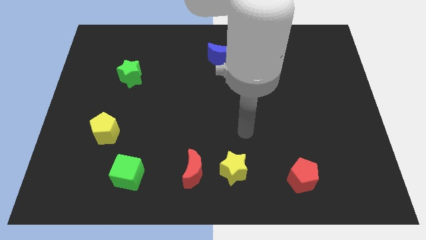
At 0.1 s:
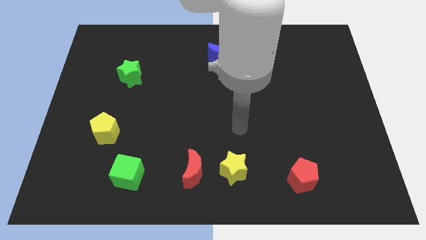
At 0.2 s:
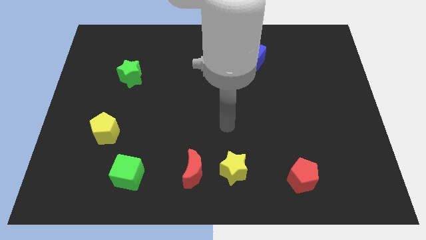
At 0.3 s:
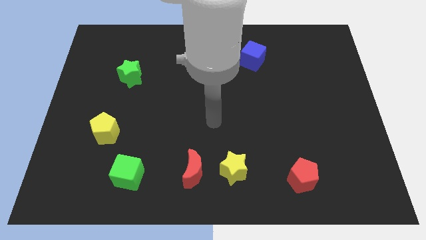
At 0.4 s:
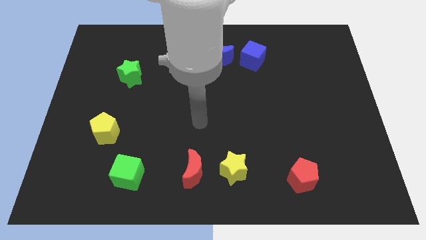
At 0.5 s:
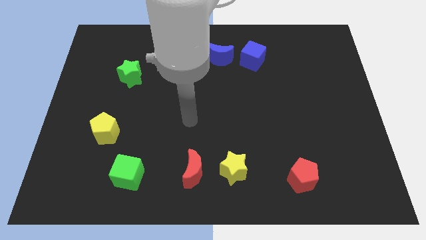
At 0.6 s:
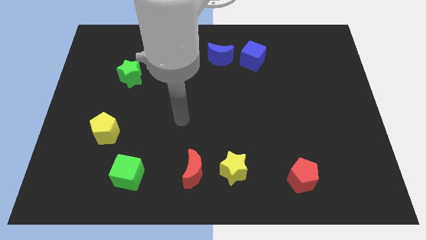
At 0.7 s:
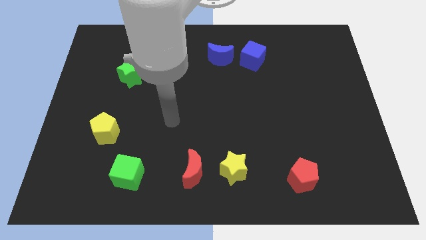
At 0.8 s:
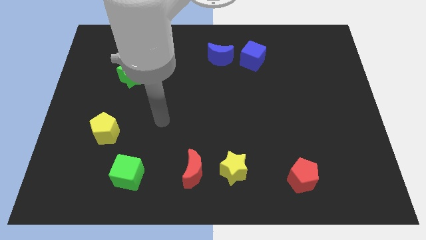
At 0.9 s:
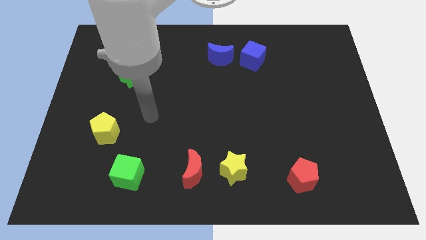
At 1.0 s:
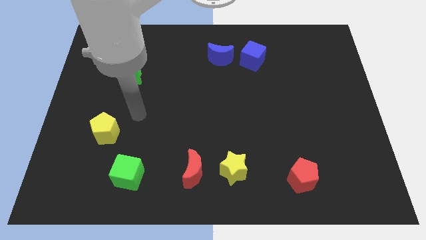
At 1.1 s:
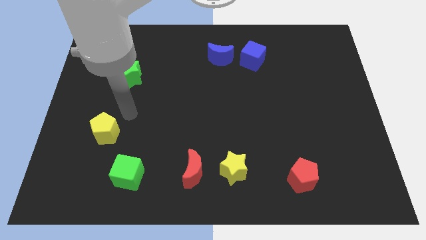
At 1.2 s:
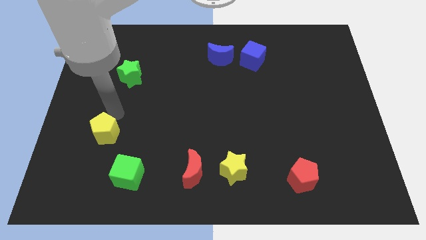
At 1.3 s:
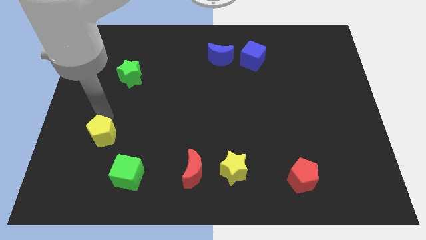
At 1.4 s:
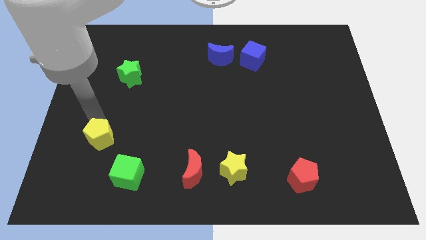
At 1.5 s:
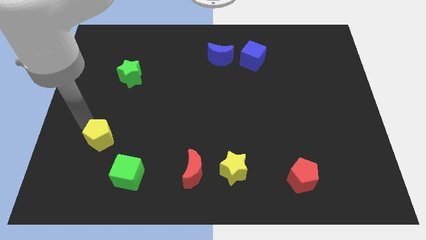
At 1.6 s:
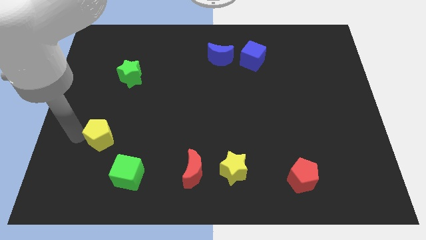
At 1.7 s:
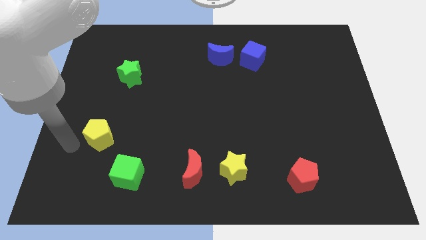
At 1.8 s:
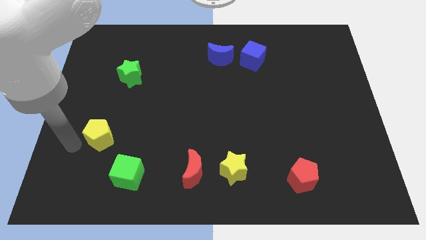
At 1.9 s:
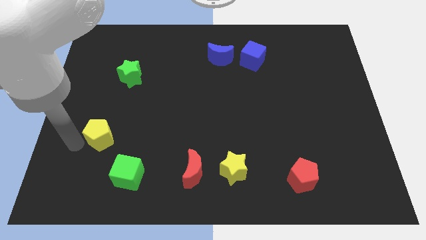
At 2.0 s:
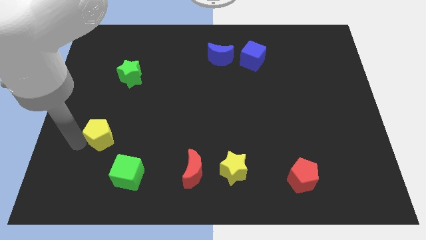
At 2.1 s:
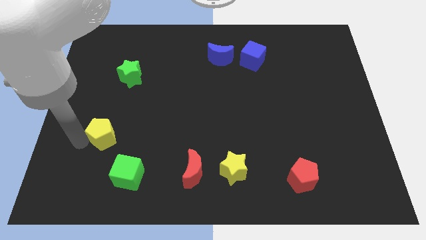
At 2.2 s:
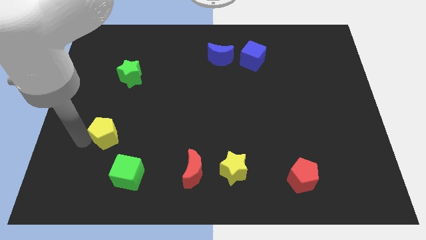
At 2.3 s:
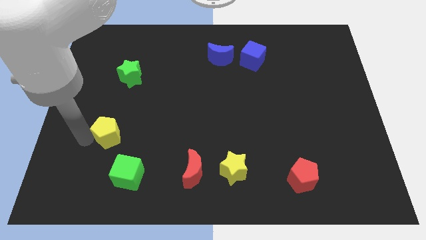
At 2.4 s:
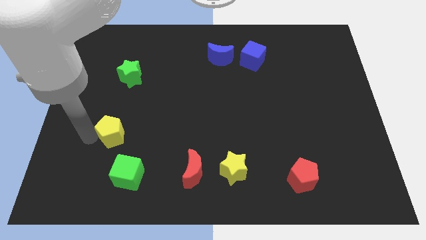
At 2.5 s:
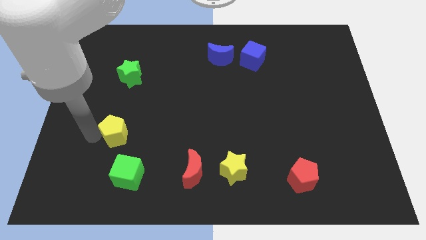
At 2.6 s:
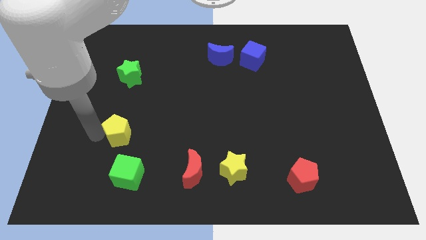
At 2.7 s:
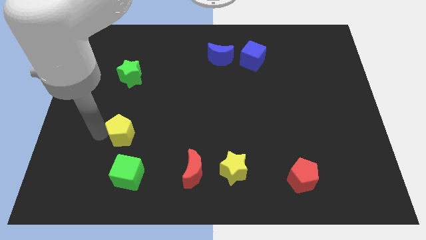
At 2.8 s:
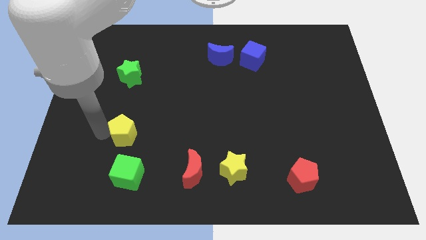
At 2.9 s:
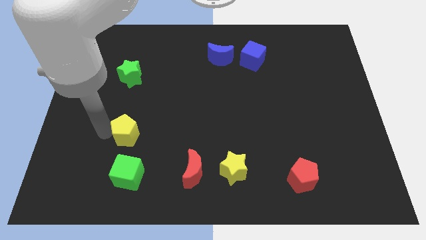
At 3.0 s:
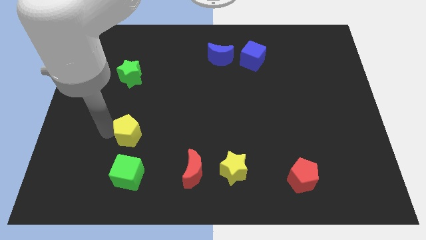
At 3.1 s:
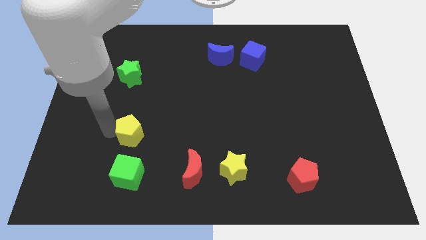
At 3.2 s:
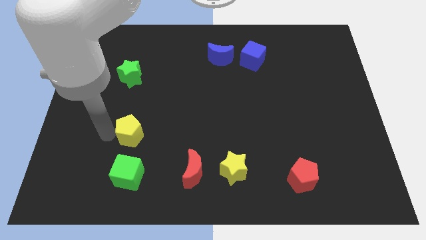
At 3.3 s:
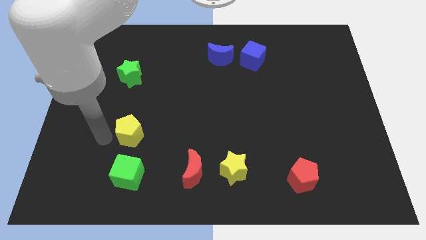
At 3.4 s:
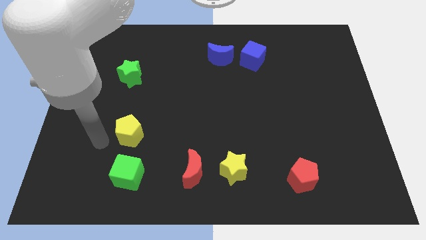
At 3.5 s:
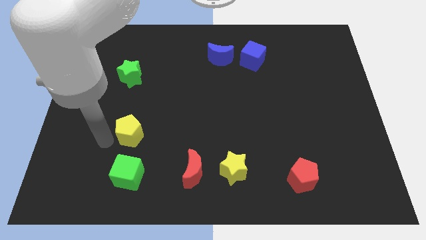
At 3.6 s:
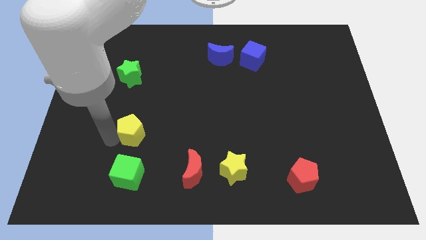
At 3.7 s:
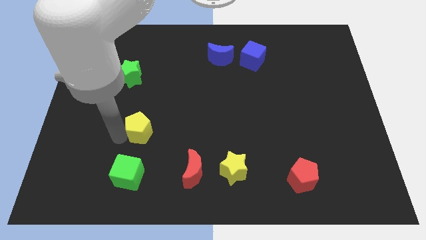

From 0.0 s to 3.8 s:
move the yellow pentagon right a little bit

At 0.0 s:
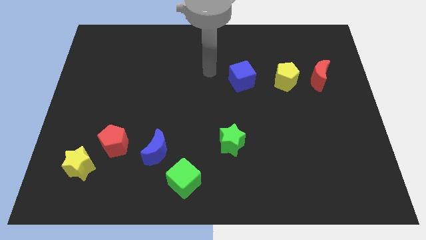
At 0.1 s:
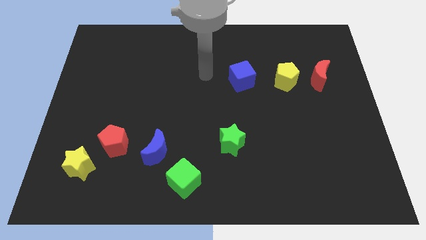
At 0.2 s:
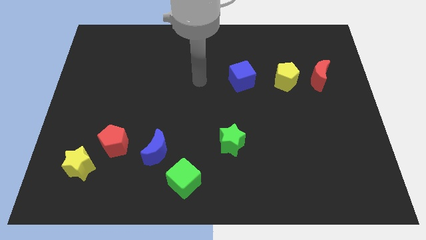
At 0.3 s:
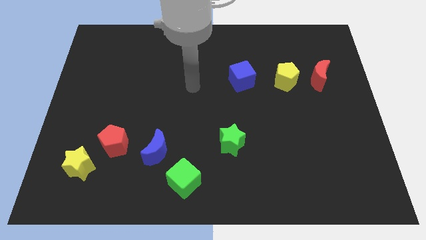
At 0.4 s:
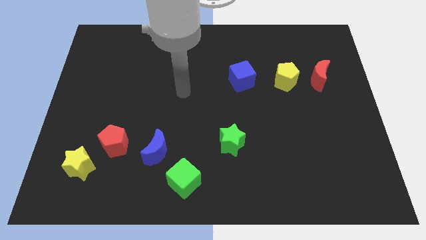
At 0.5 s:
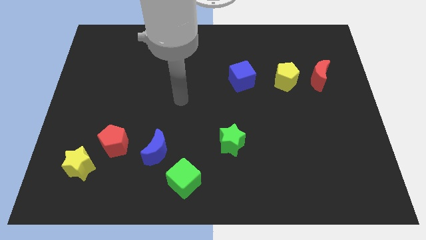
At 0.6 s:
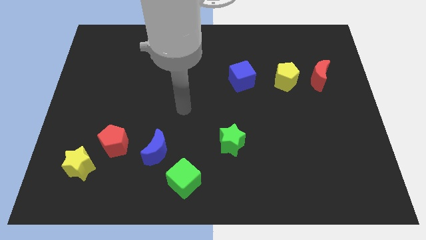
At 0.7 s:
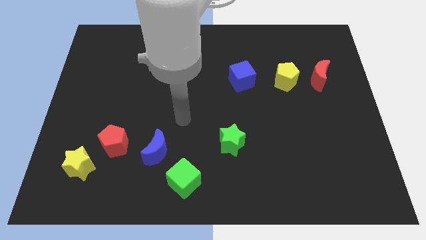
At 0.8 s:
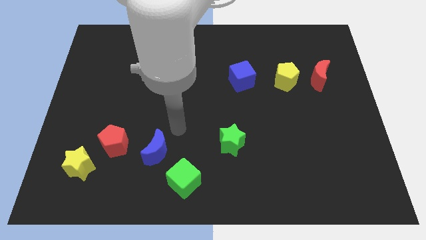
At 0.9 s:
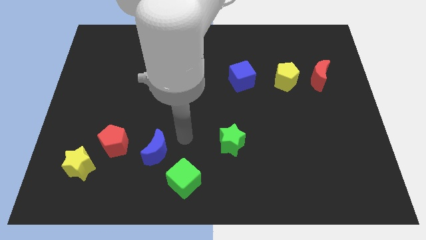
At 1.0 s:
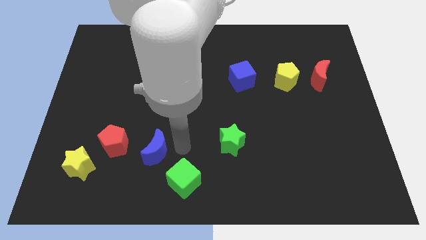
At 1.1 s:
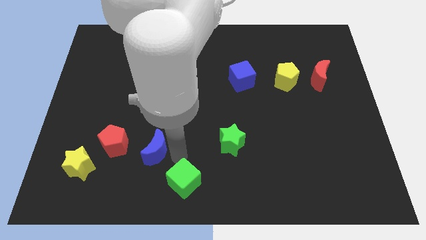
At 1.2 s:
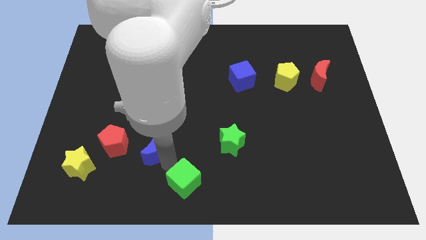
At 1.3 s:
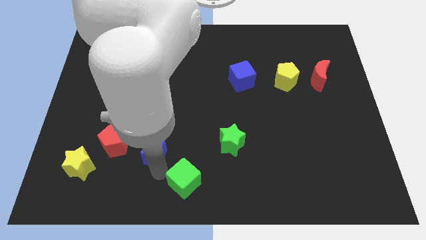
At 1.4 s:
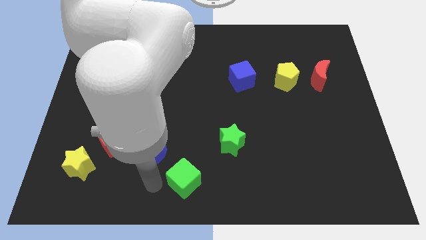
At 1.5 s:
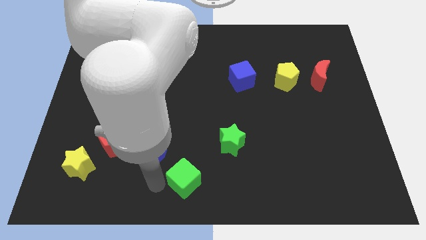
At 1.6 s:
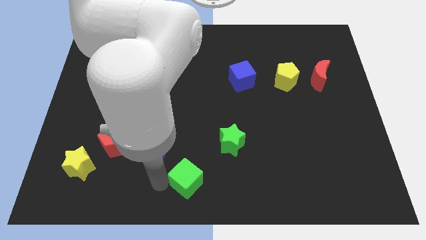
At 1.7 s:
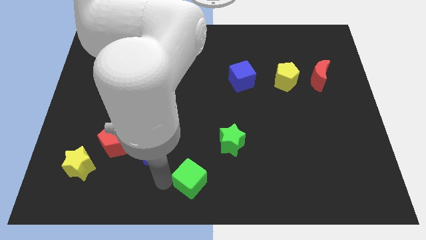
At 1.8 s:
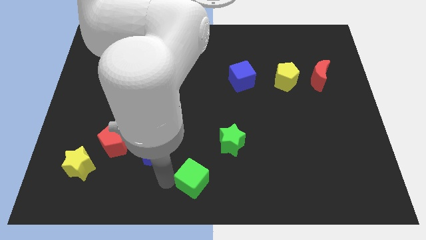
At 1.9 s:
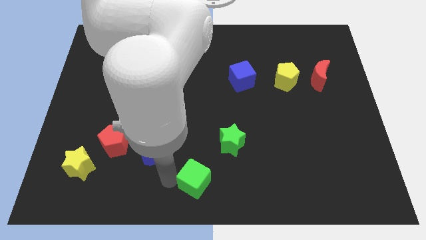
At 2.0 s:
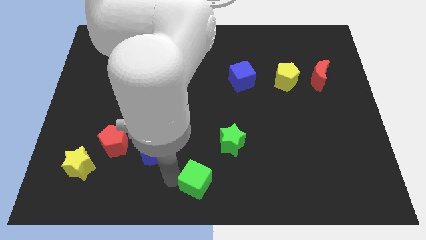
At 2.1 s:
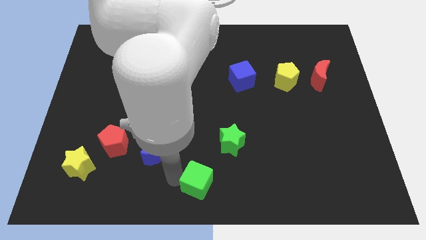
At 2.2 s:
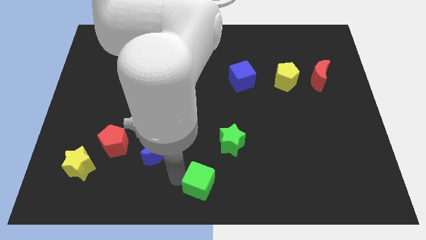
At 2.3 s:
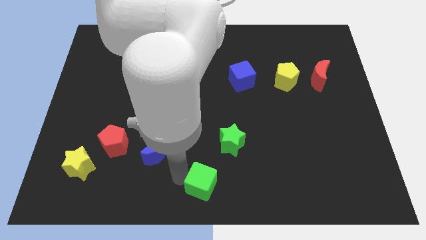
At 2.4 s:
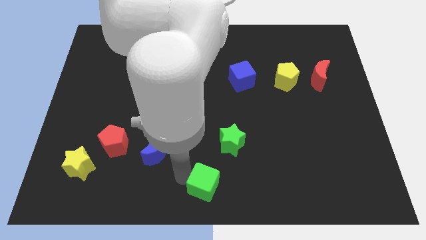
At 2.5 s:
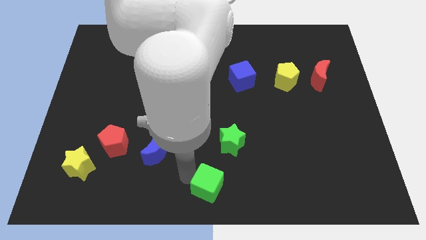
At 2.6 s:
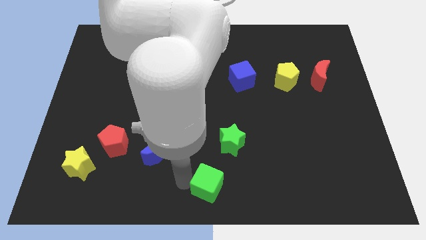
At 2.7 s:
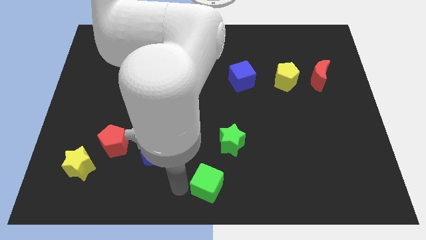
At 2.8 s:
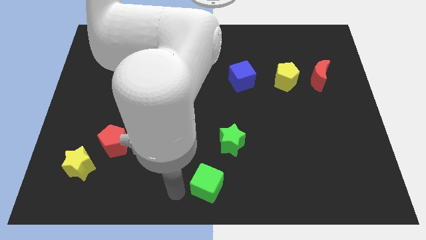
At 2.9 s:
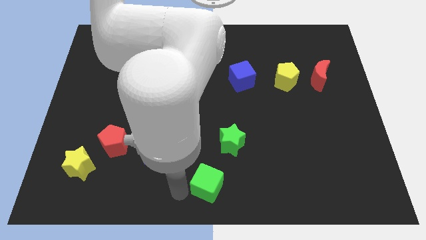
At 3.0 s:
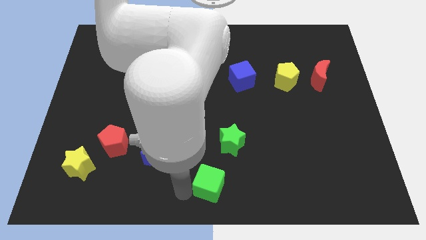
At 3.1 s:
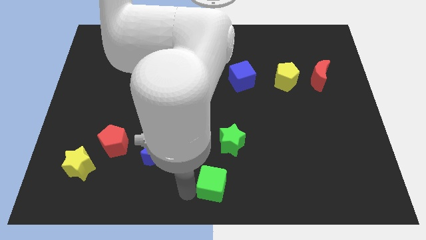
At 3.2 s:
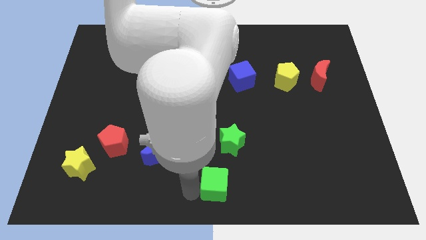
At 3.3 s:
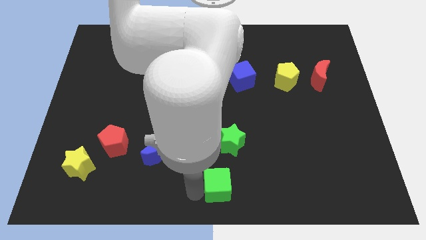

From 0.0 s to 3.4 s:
move the green cube to the right slightly

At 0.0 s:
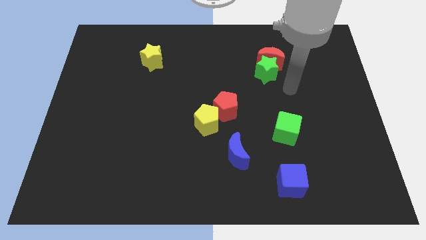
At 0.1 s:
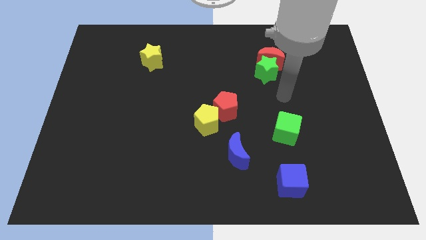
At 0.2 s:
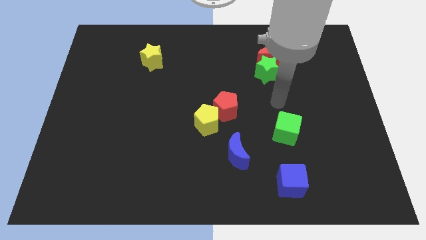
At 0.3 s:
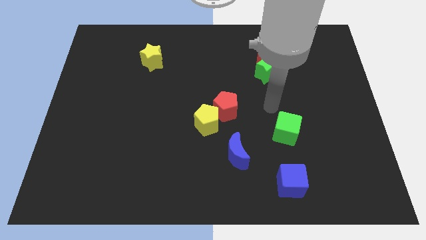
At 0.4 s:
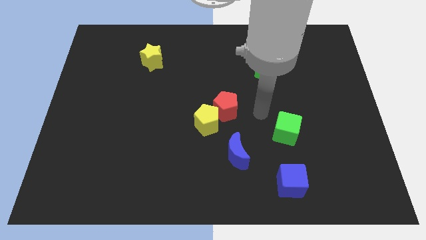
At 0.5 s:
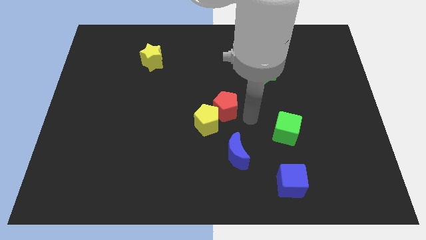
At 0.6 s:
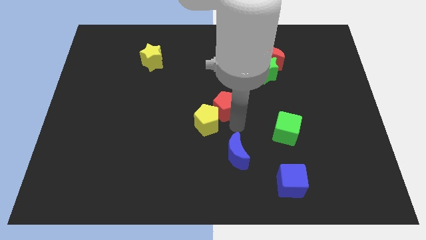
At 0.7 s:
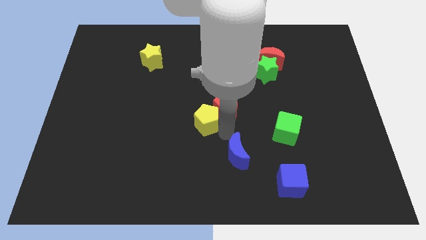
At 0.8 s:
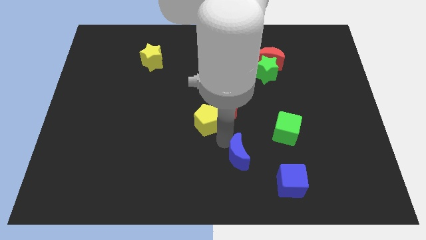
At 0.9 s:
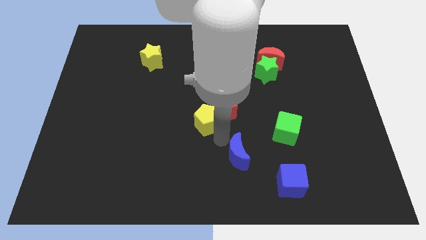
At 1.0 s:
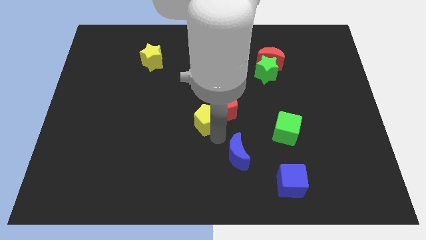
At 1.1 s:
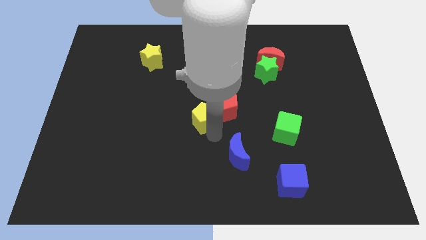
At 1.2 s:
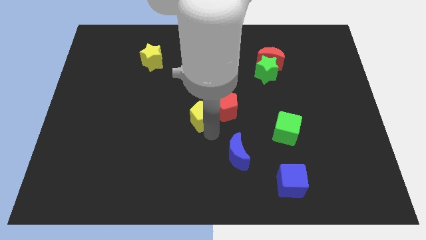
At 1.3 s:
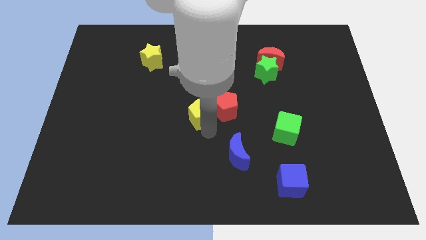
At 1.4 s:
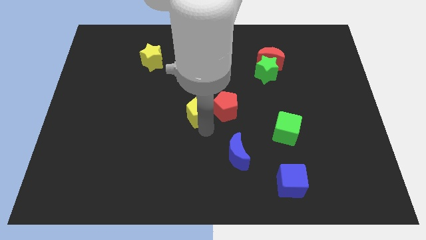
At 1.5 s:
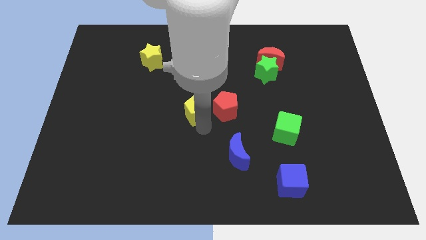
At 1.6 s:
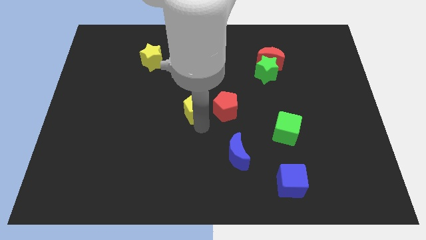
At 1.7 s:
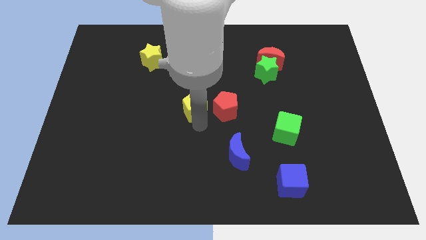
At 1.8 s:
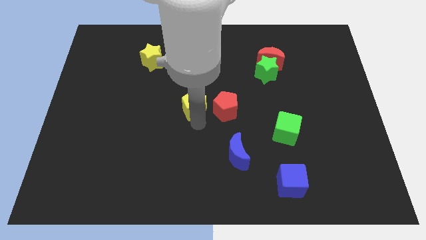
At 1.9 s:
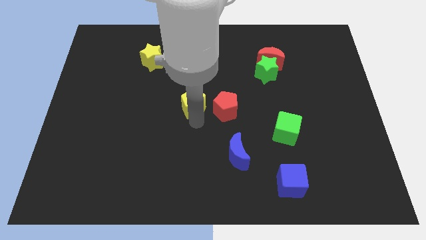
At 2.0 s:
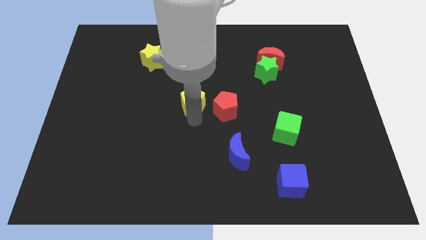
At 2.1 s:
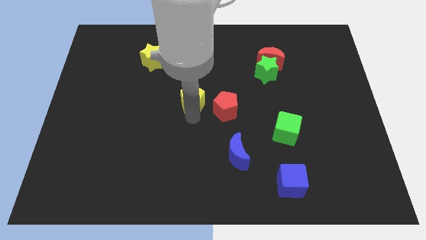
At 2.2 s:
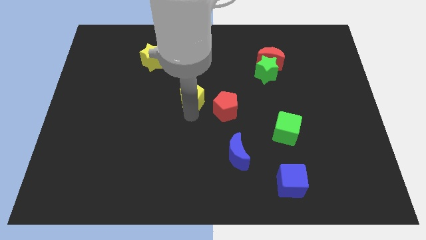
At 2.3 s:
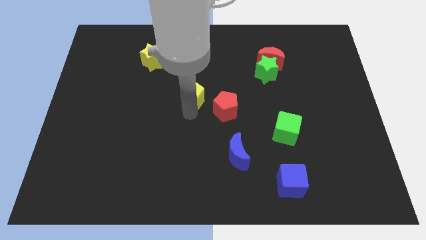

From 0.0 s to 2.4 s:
slightly slide the yellow pentagon upwards
